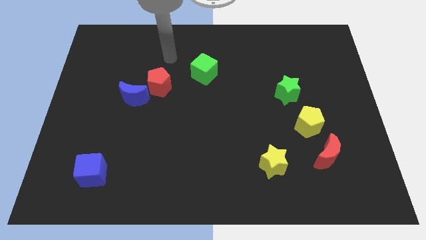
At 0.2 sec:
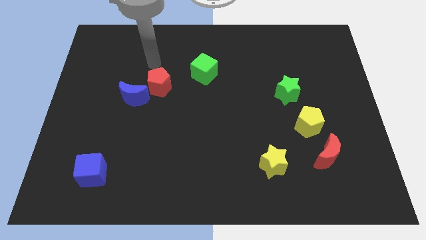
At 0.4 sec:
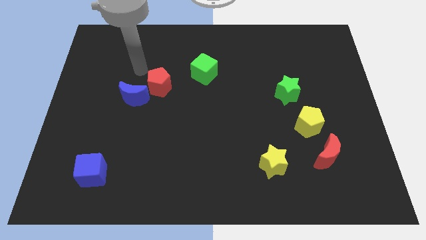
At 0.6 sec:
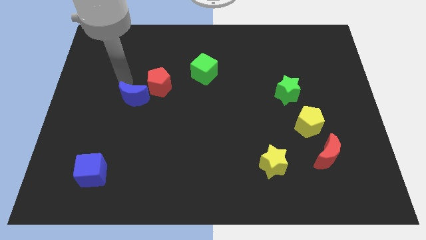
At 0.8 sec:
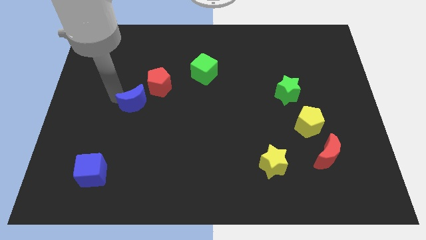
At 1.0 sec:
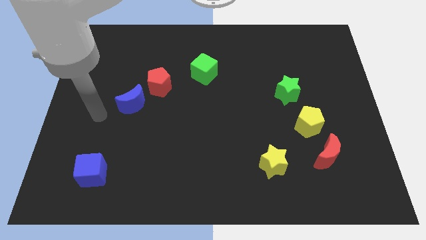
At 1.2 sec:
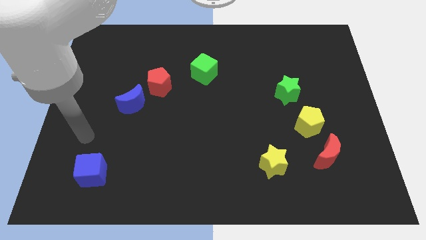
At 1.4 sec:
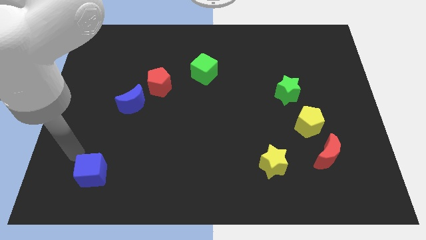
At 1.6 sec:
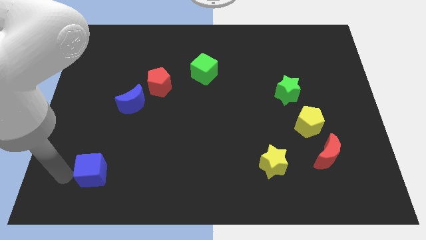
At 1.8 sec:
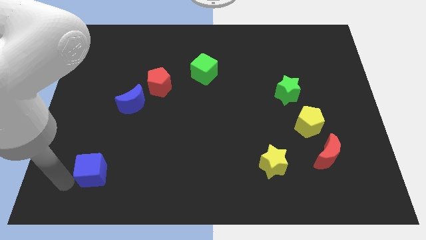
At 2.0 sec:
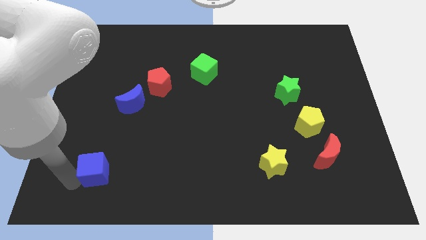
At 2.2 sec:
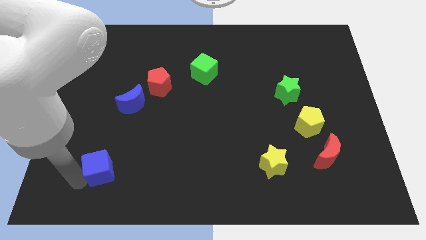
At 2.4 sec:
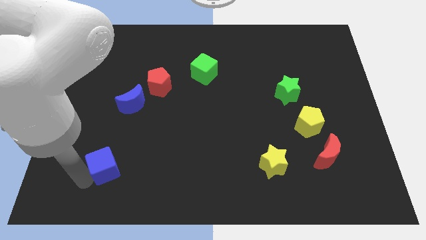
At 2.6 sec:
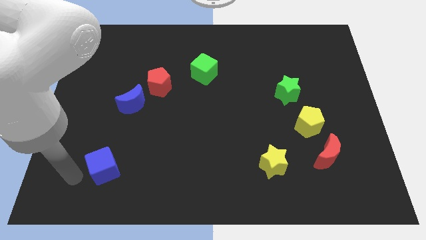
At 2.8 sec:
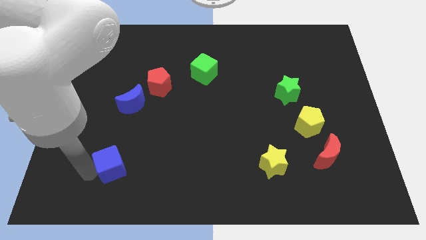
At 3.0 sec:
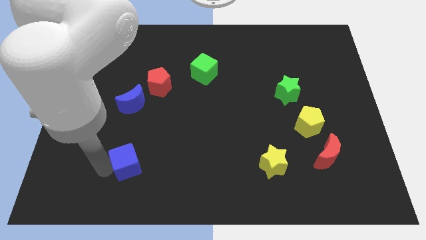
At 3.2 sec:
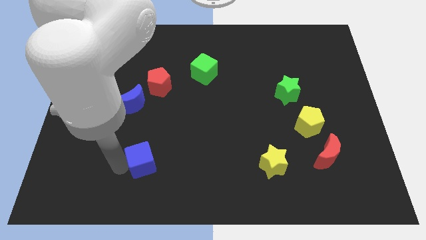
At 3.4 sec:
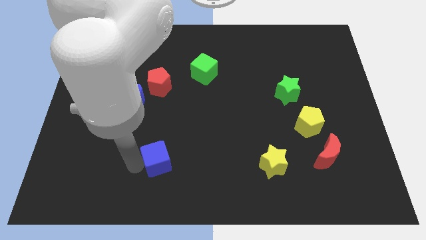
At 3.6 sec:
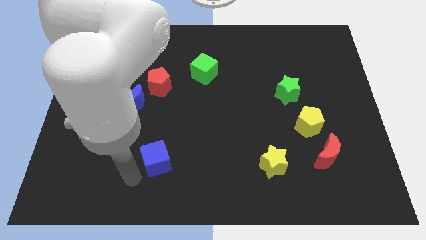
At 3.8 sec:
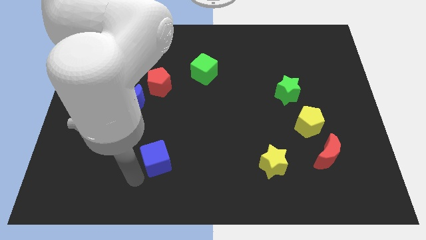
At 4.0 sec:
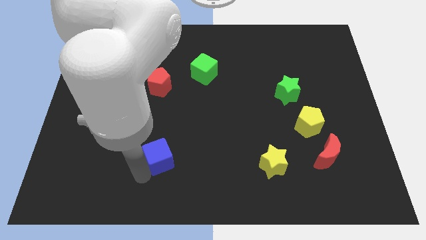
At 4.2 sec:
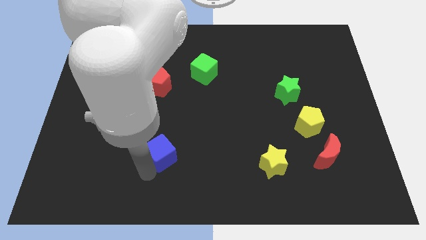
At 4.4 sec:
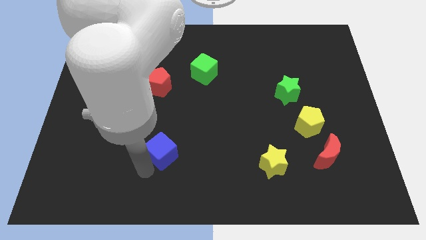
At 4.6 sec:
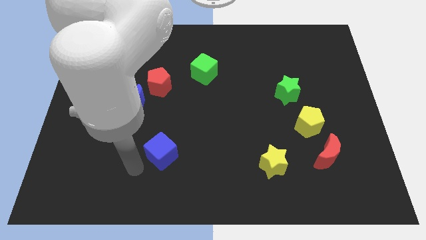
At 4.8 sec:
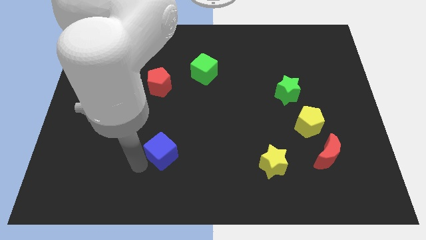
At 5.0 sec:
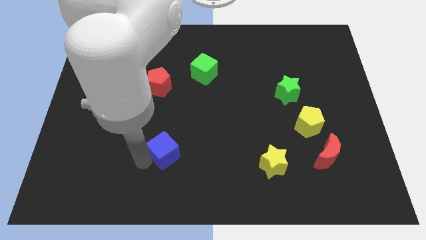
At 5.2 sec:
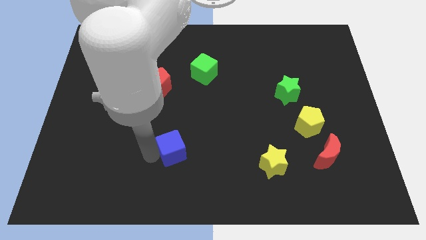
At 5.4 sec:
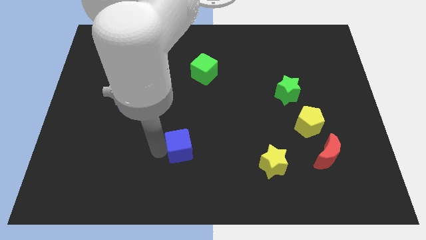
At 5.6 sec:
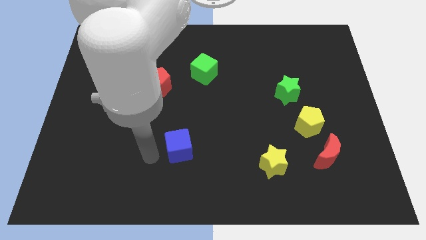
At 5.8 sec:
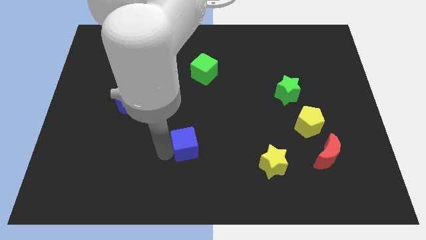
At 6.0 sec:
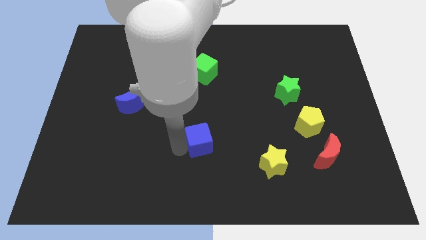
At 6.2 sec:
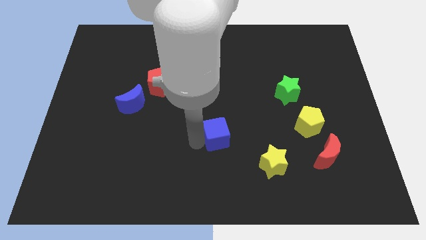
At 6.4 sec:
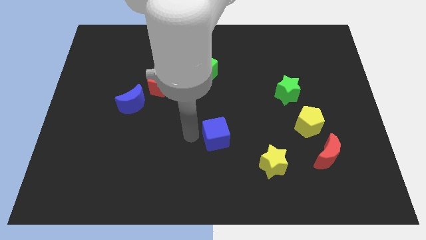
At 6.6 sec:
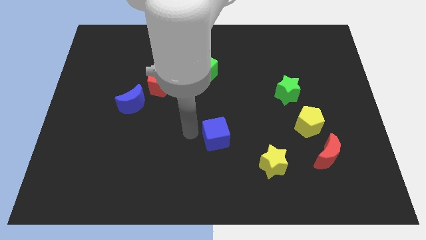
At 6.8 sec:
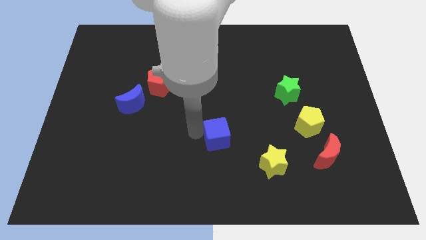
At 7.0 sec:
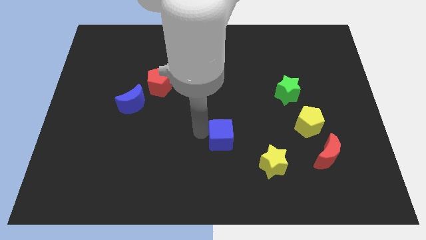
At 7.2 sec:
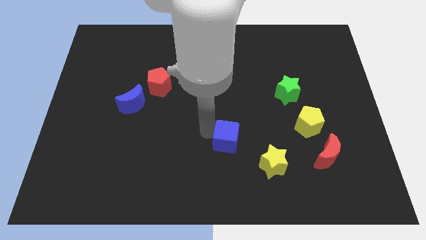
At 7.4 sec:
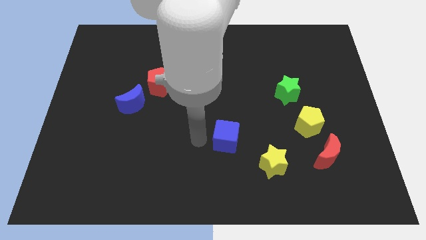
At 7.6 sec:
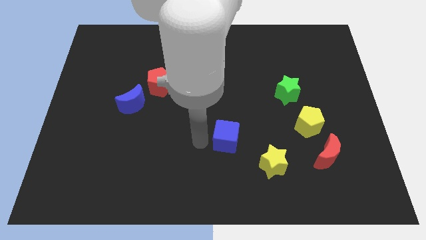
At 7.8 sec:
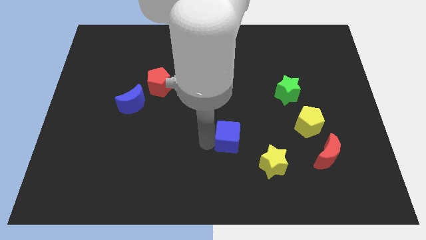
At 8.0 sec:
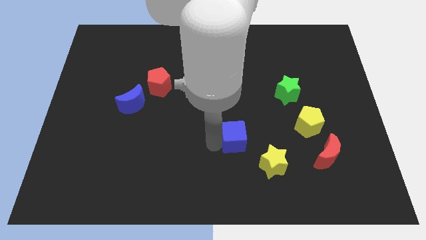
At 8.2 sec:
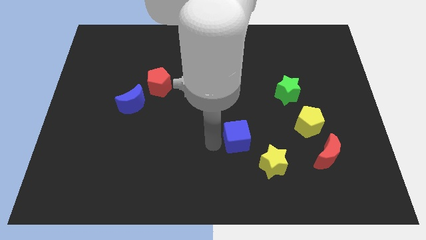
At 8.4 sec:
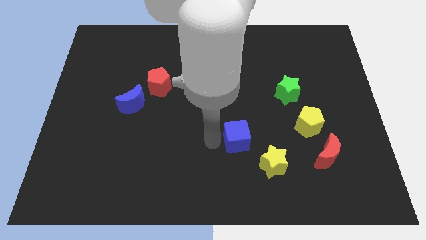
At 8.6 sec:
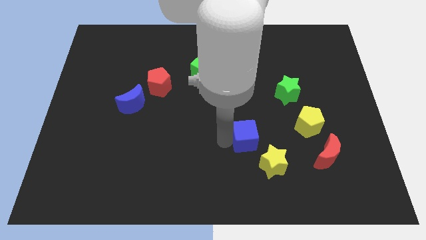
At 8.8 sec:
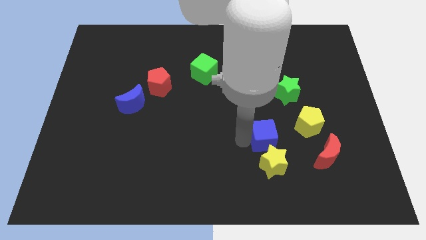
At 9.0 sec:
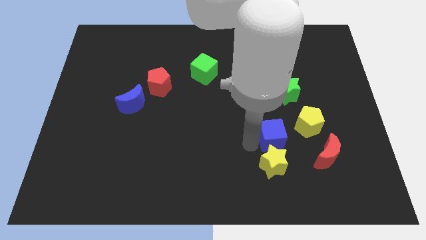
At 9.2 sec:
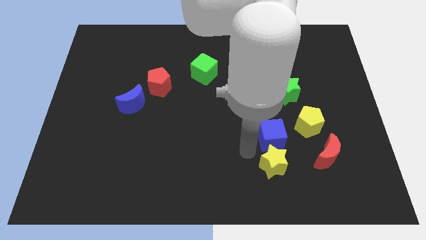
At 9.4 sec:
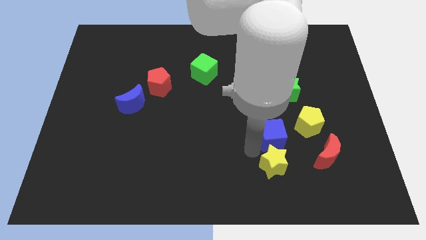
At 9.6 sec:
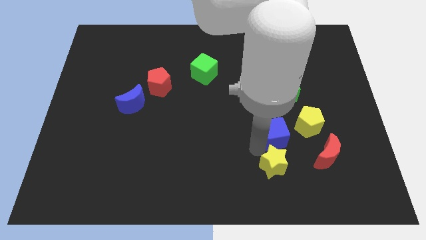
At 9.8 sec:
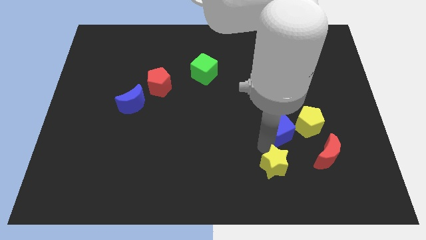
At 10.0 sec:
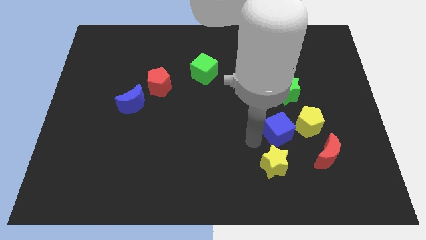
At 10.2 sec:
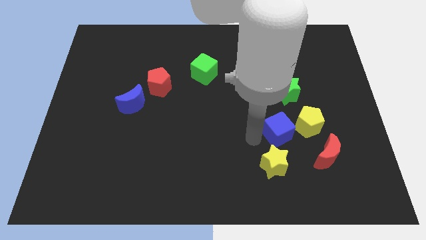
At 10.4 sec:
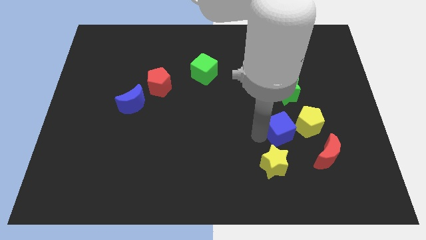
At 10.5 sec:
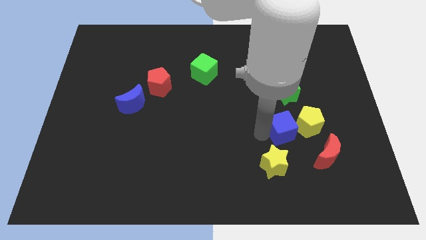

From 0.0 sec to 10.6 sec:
slide the blue cube close to the yellow pentagon

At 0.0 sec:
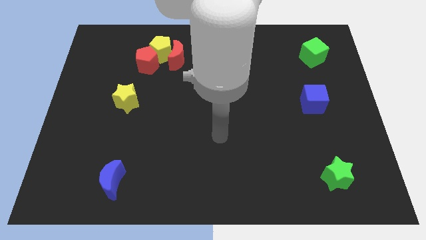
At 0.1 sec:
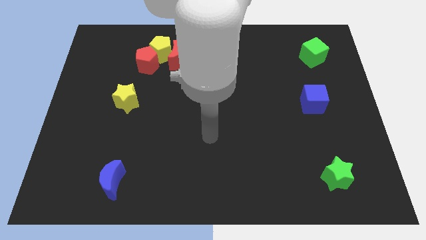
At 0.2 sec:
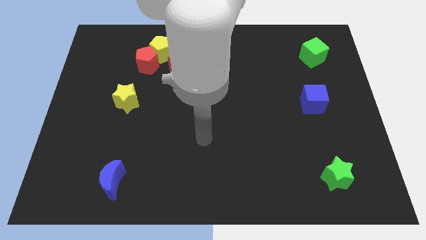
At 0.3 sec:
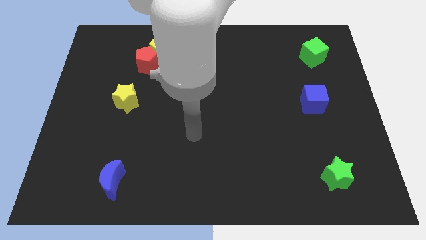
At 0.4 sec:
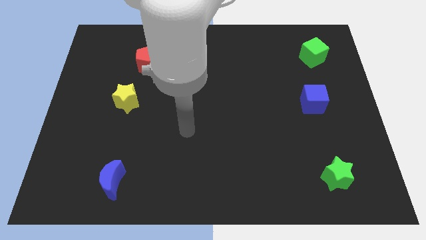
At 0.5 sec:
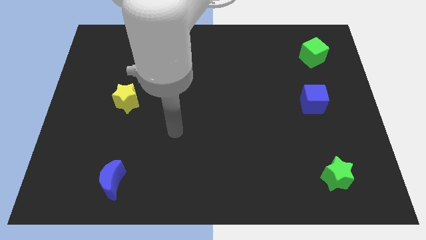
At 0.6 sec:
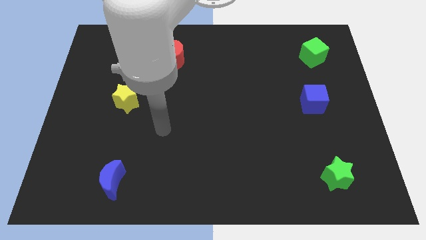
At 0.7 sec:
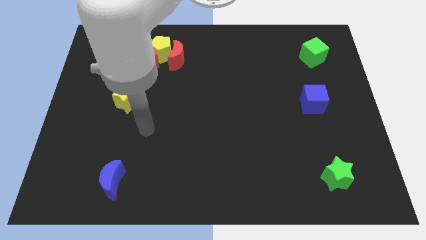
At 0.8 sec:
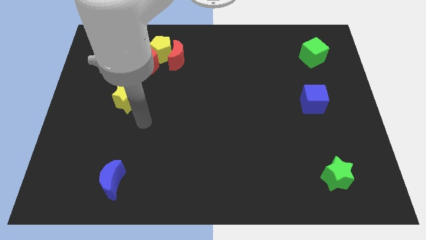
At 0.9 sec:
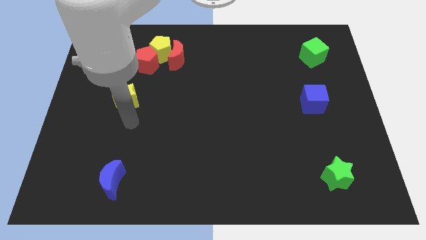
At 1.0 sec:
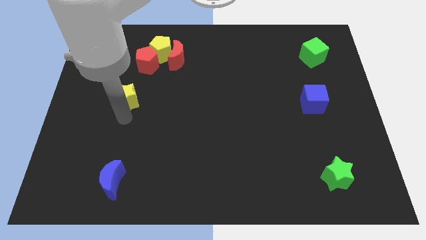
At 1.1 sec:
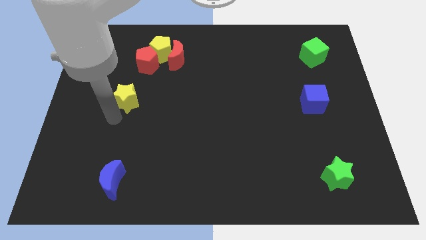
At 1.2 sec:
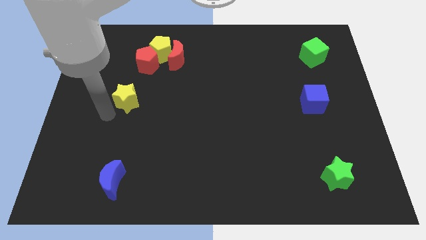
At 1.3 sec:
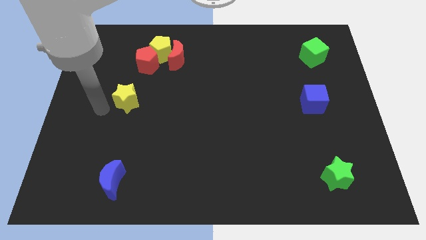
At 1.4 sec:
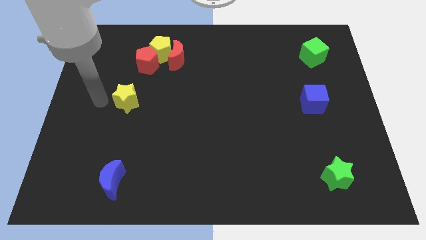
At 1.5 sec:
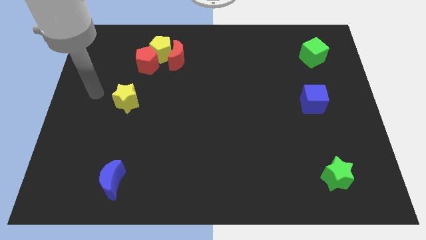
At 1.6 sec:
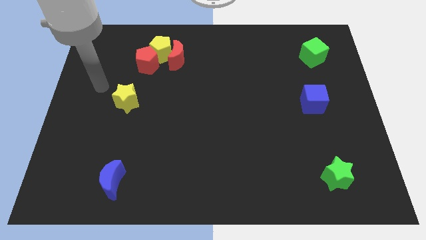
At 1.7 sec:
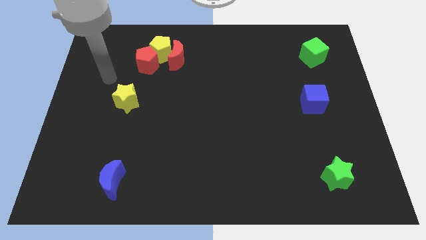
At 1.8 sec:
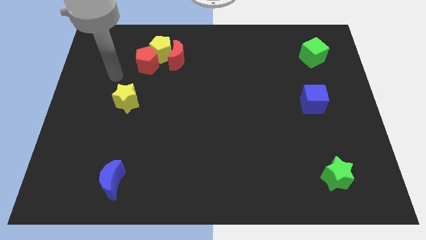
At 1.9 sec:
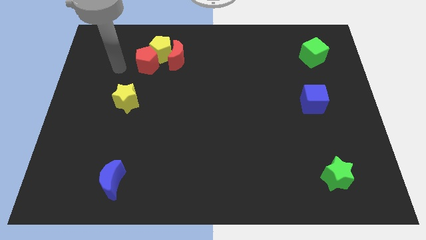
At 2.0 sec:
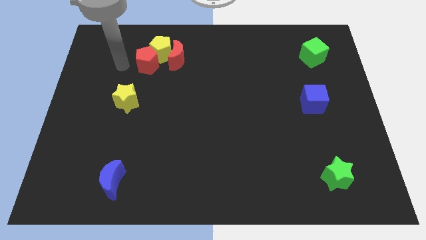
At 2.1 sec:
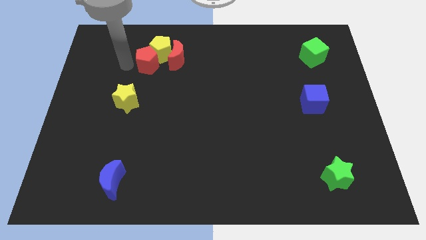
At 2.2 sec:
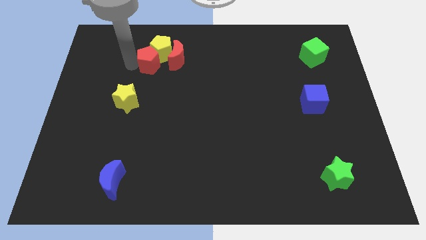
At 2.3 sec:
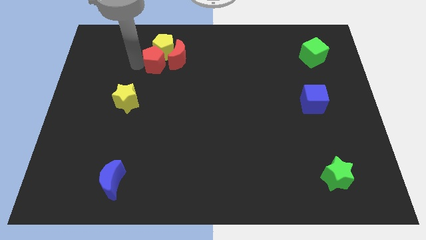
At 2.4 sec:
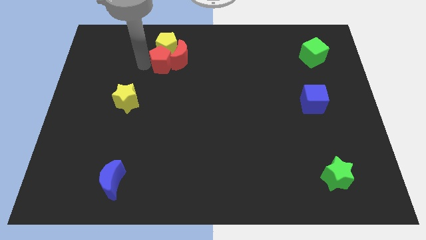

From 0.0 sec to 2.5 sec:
move the red pentagon next to the red moon
